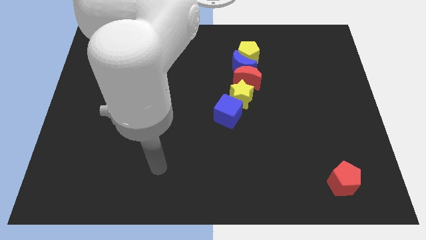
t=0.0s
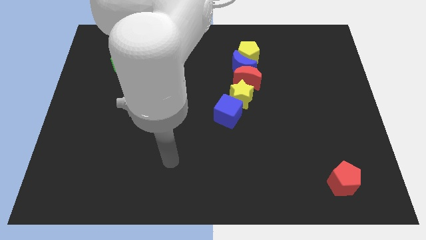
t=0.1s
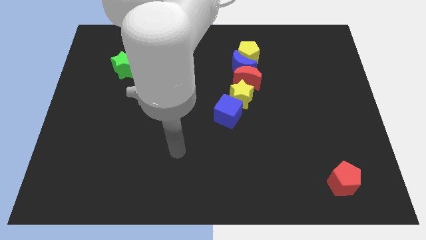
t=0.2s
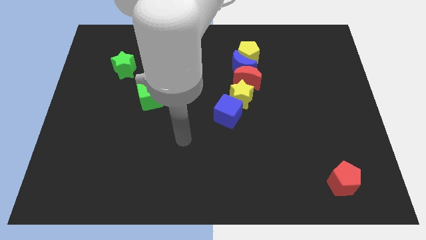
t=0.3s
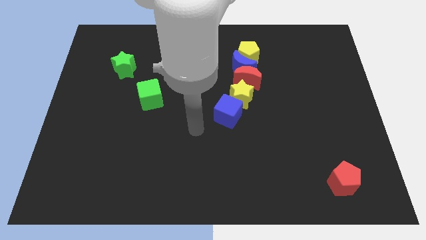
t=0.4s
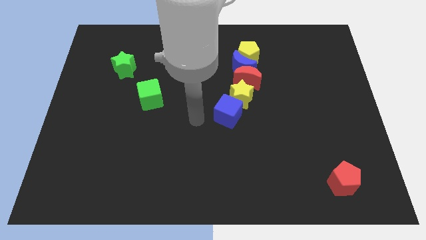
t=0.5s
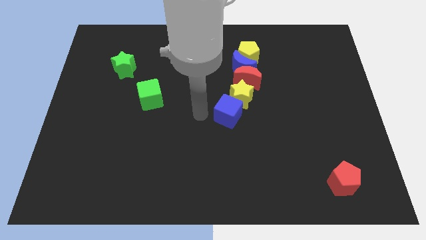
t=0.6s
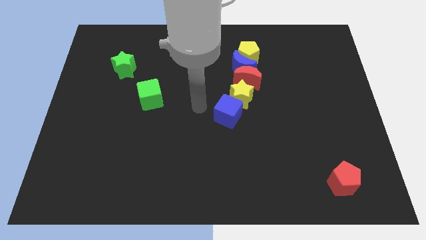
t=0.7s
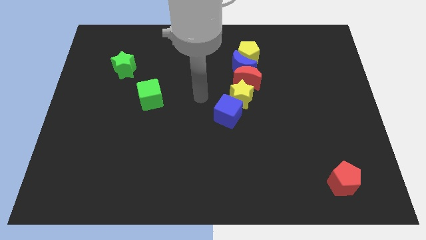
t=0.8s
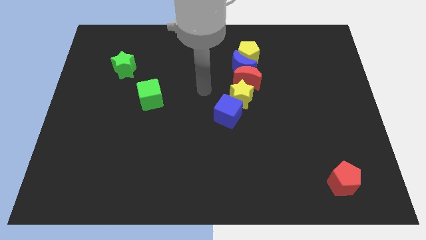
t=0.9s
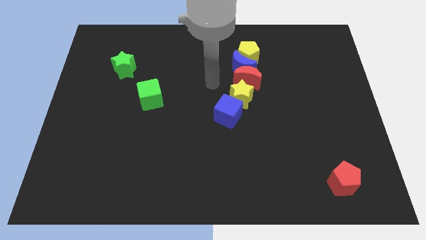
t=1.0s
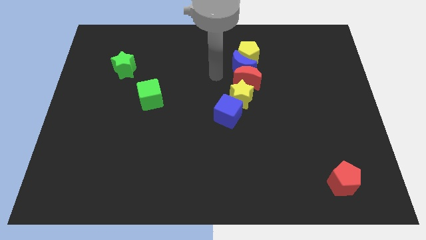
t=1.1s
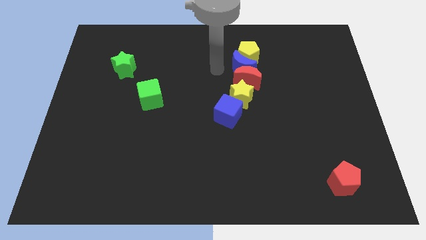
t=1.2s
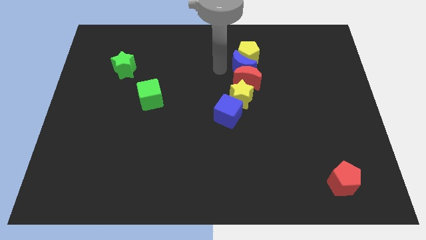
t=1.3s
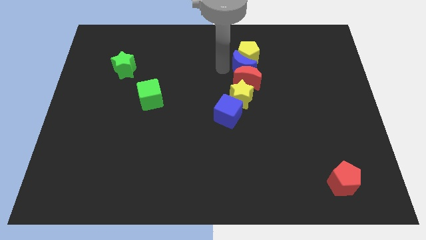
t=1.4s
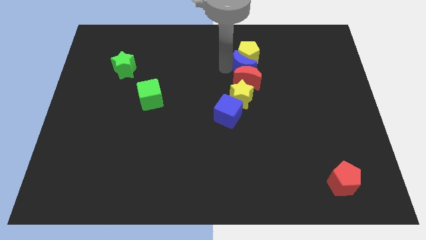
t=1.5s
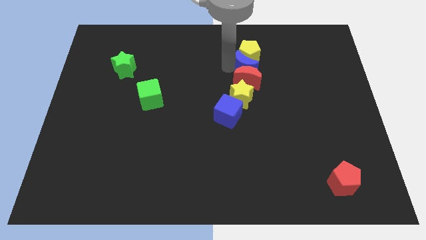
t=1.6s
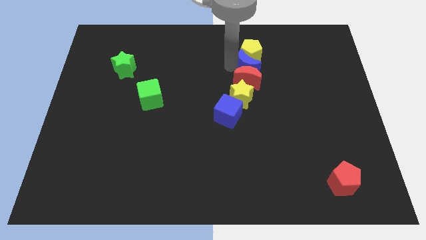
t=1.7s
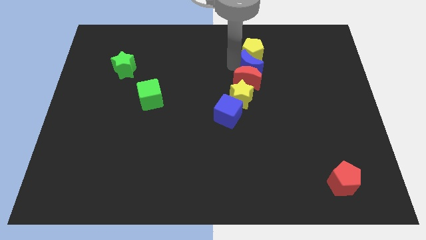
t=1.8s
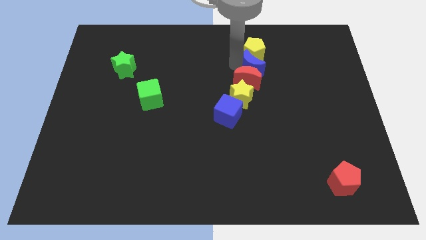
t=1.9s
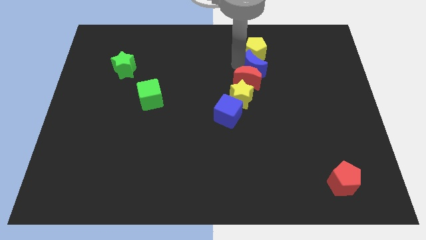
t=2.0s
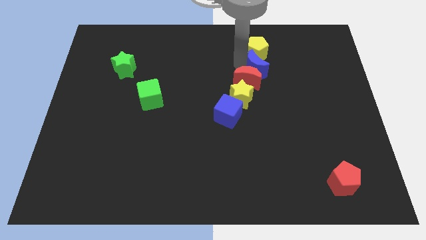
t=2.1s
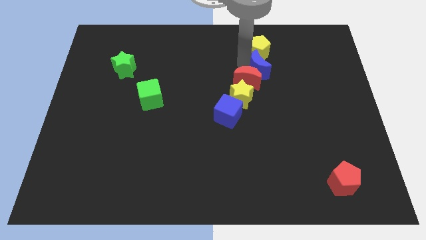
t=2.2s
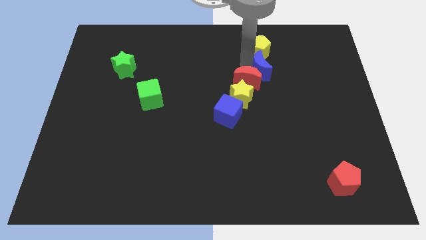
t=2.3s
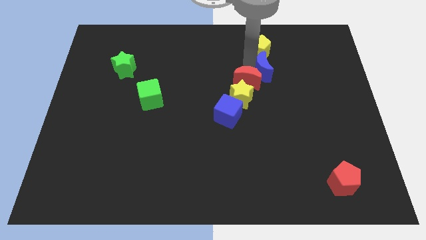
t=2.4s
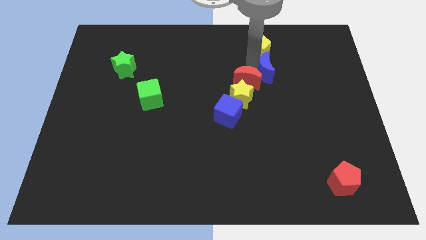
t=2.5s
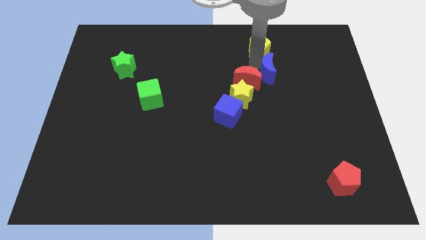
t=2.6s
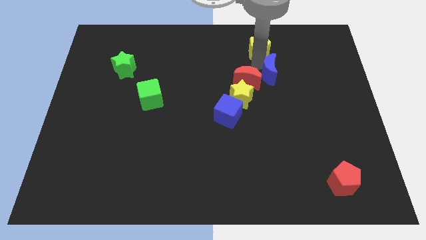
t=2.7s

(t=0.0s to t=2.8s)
slightly push the blue moon right

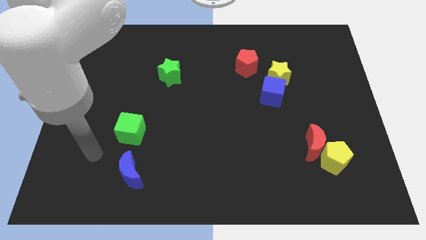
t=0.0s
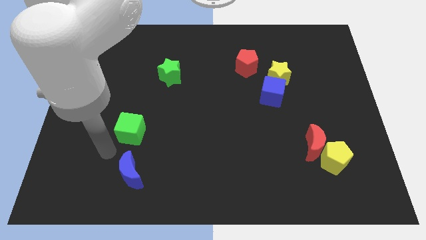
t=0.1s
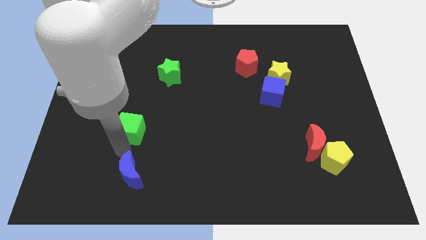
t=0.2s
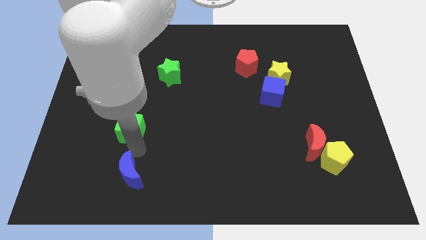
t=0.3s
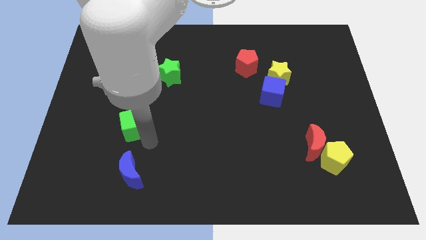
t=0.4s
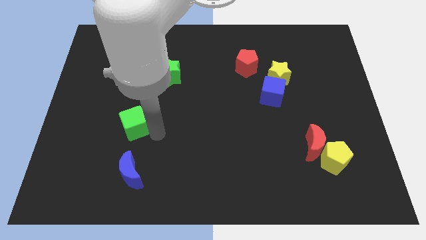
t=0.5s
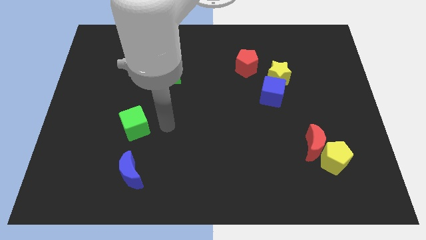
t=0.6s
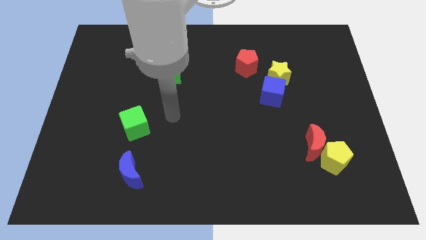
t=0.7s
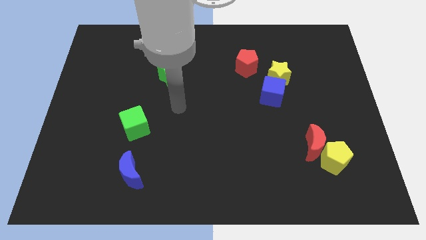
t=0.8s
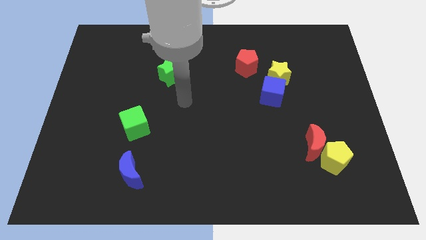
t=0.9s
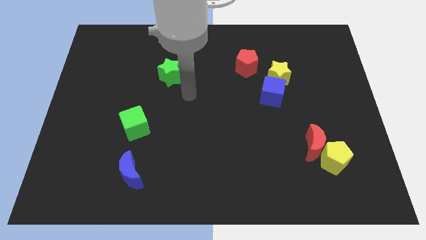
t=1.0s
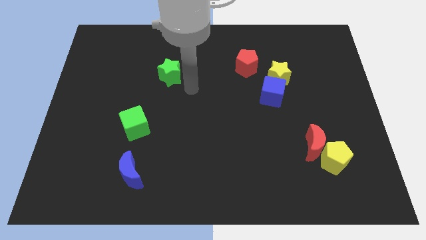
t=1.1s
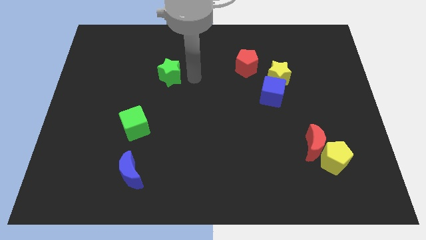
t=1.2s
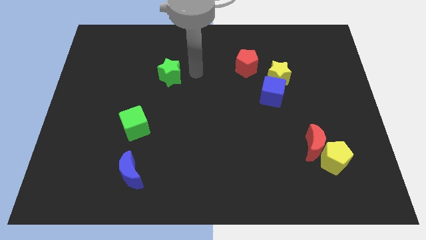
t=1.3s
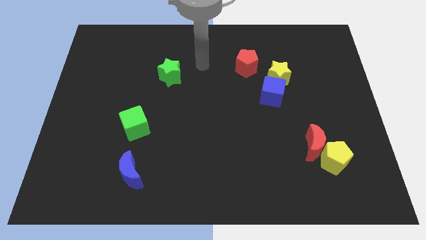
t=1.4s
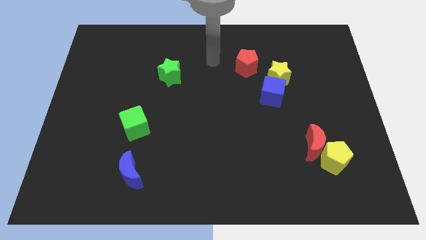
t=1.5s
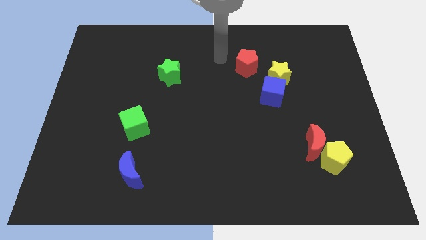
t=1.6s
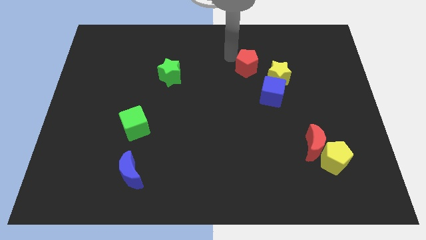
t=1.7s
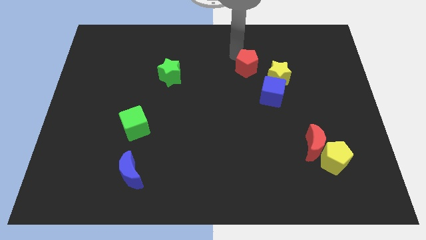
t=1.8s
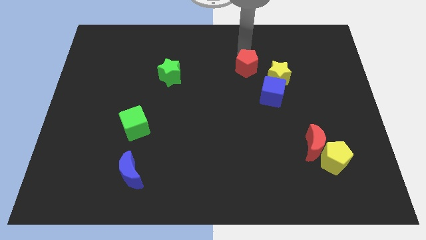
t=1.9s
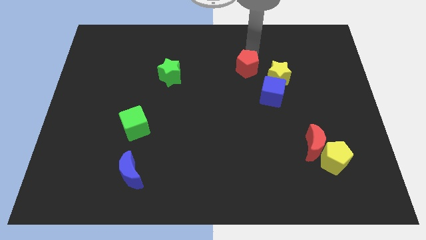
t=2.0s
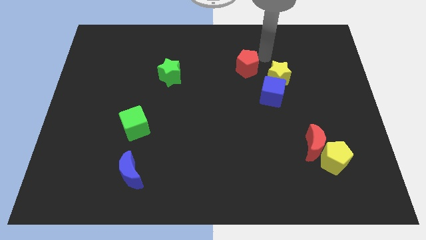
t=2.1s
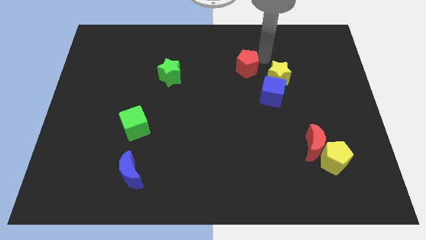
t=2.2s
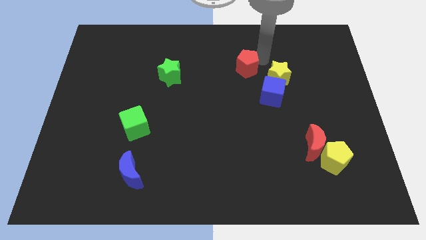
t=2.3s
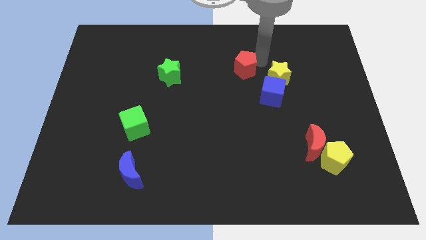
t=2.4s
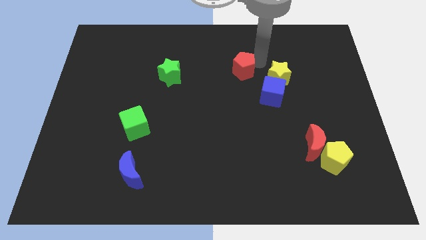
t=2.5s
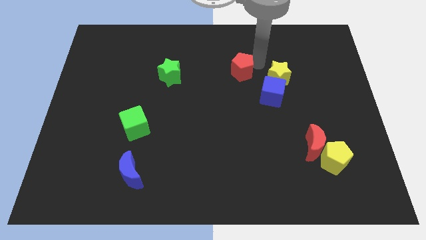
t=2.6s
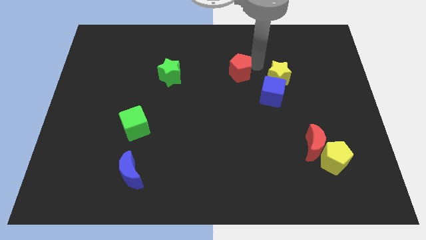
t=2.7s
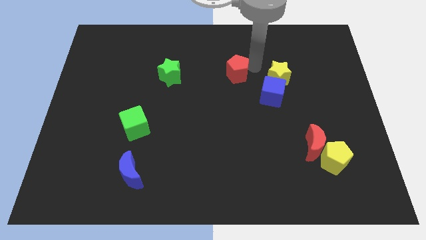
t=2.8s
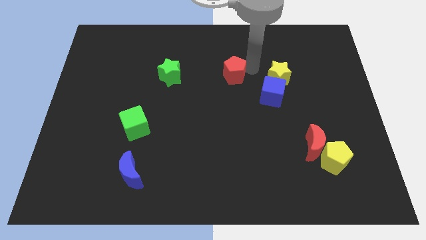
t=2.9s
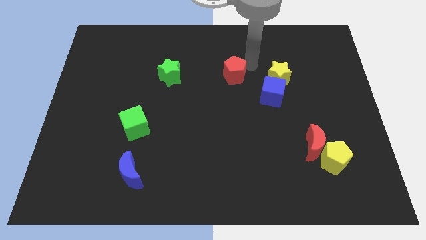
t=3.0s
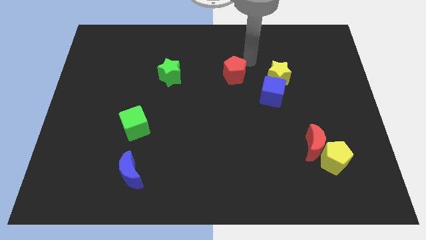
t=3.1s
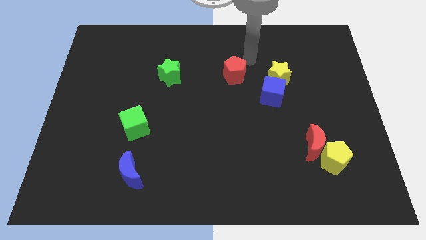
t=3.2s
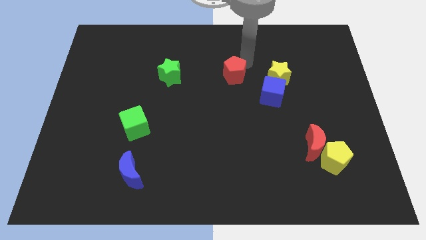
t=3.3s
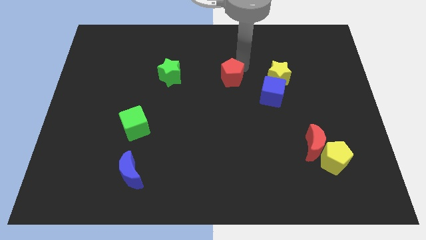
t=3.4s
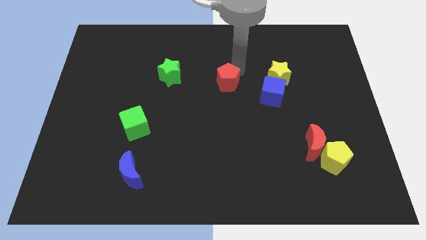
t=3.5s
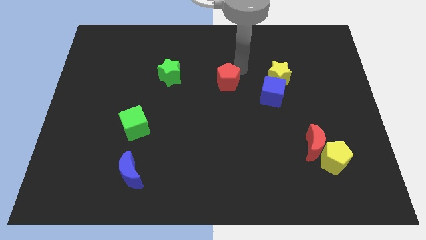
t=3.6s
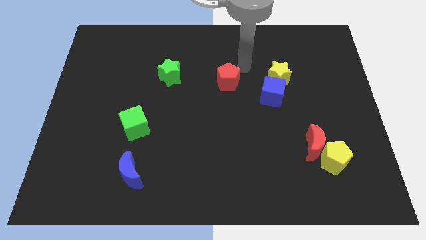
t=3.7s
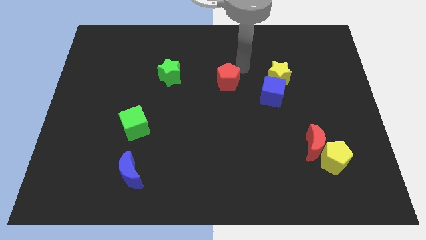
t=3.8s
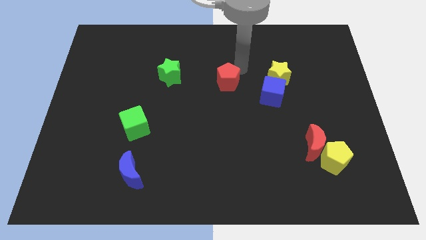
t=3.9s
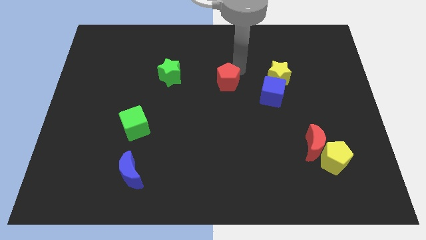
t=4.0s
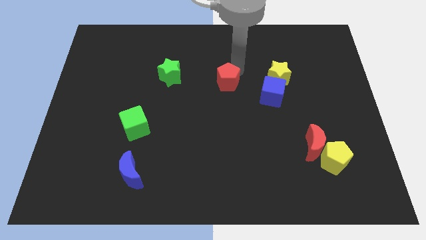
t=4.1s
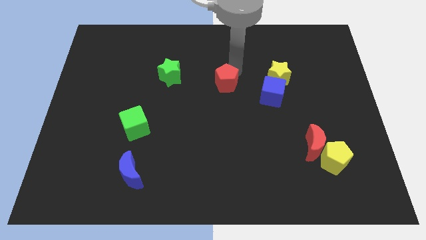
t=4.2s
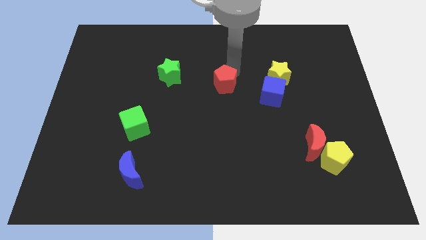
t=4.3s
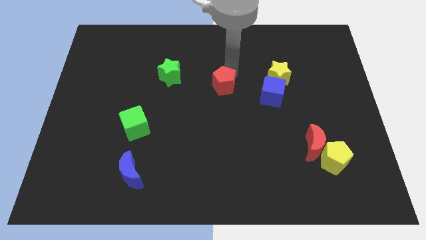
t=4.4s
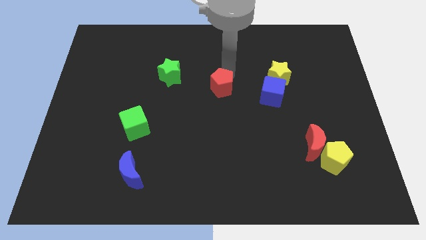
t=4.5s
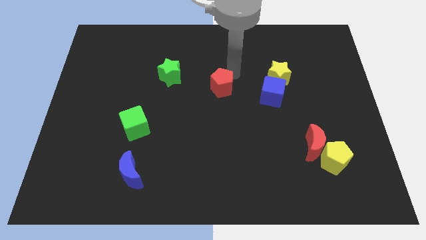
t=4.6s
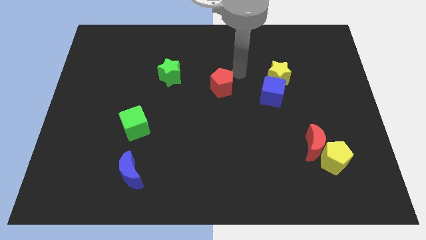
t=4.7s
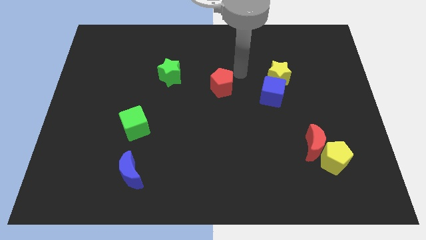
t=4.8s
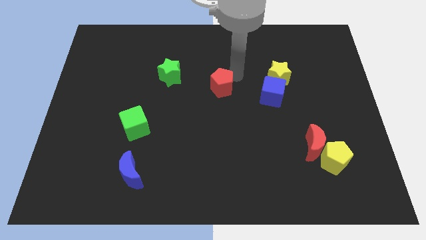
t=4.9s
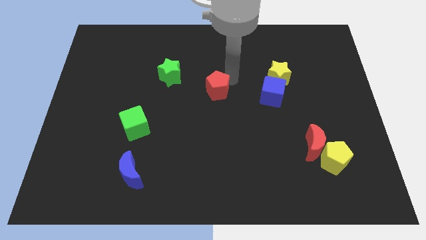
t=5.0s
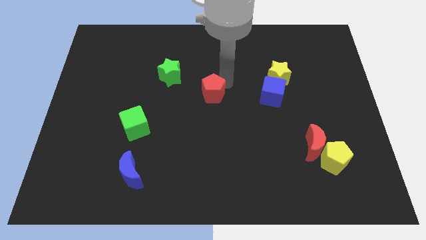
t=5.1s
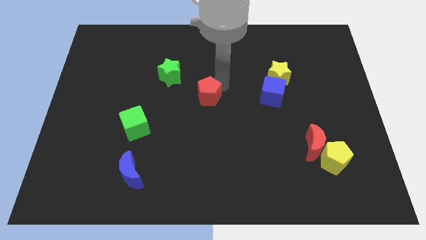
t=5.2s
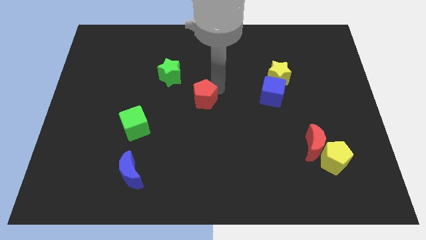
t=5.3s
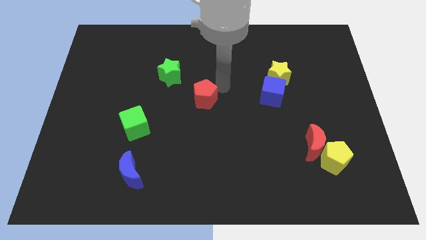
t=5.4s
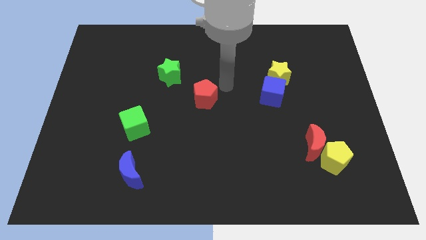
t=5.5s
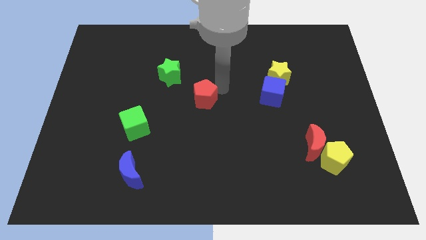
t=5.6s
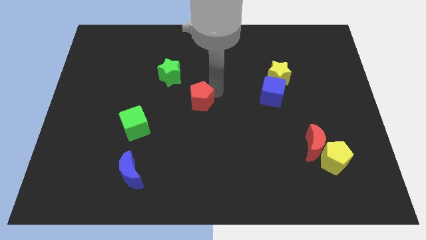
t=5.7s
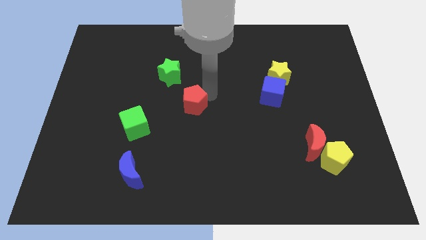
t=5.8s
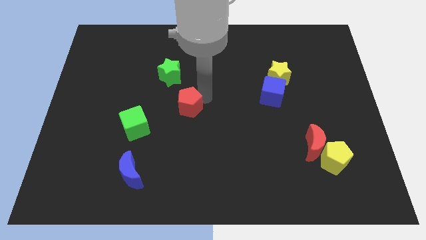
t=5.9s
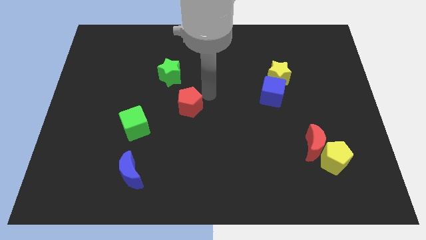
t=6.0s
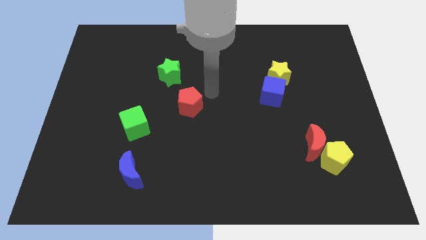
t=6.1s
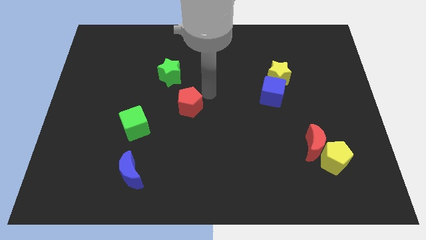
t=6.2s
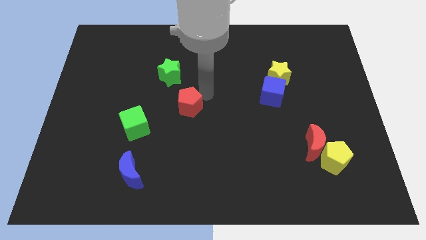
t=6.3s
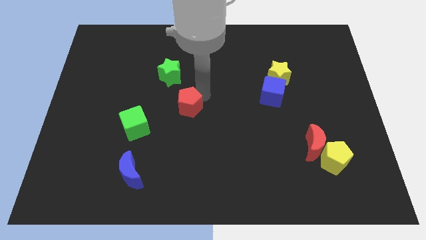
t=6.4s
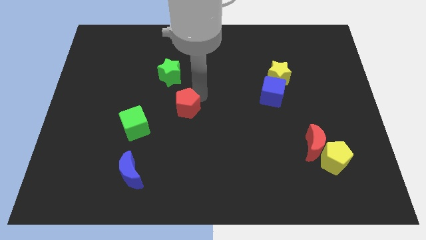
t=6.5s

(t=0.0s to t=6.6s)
slide the red pentagon downwards and left
